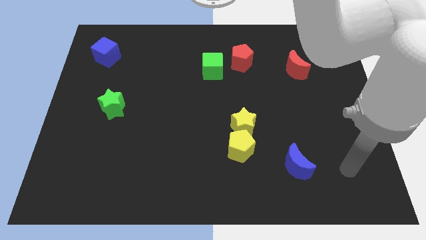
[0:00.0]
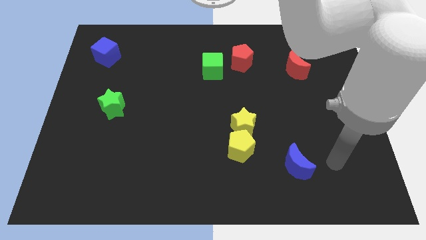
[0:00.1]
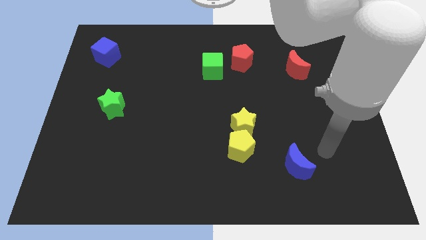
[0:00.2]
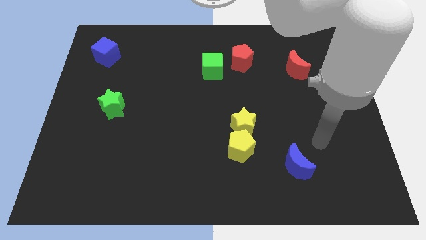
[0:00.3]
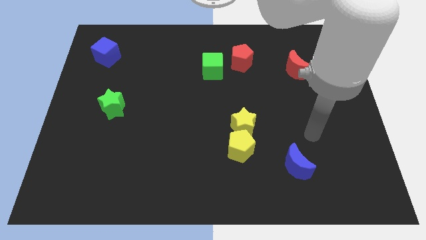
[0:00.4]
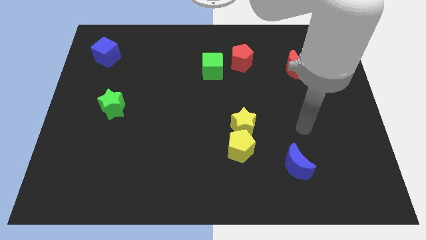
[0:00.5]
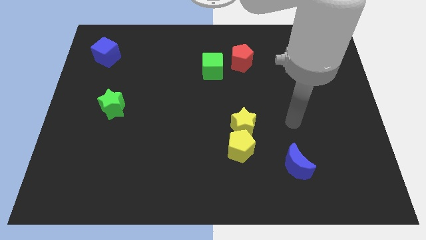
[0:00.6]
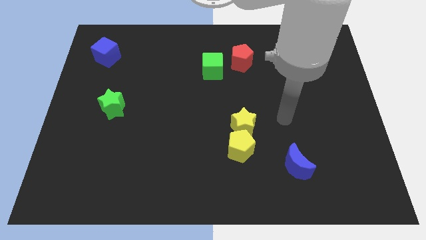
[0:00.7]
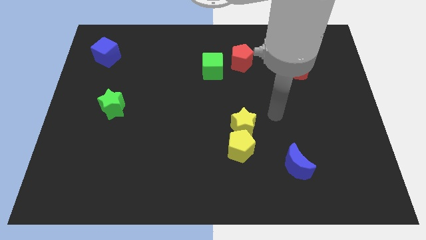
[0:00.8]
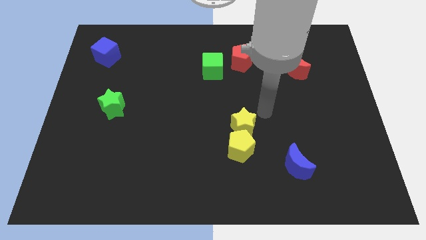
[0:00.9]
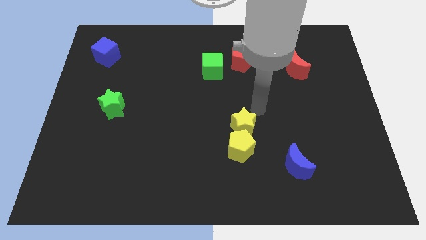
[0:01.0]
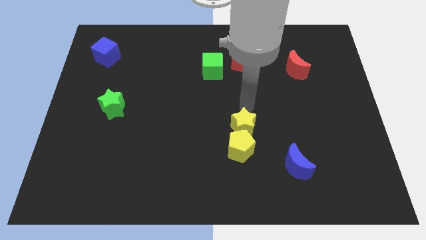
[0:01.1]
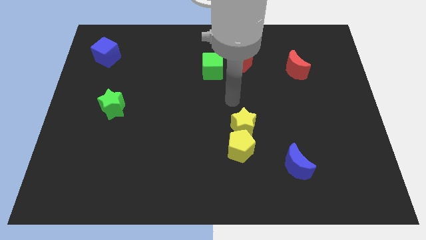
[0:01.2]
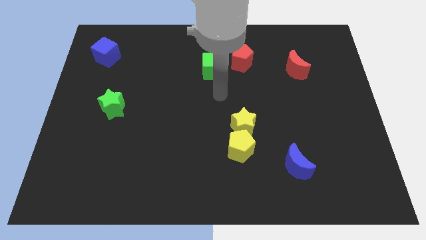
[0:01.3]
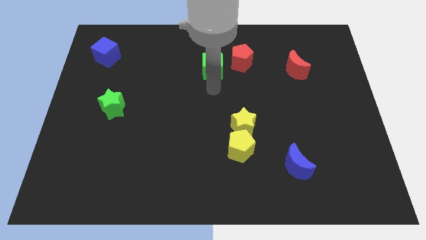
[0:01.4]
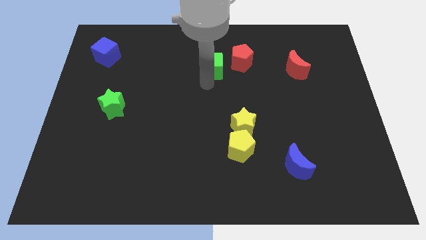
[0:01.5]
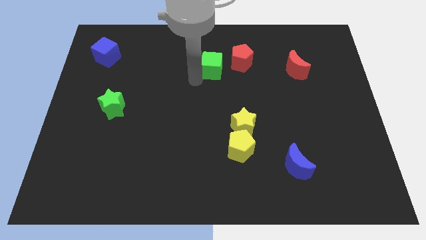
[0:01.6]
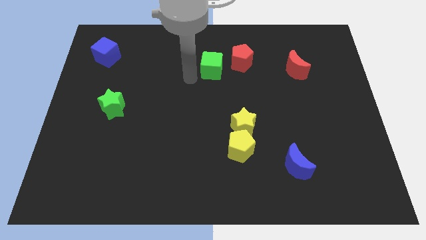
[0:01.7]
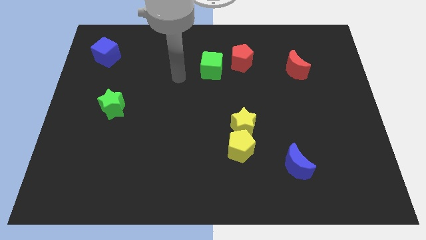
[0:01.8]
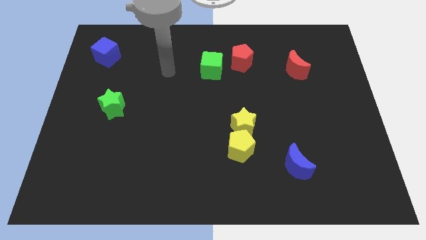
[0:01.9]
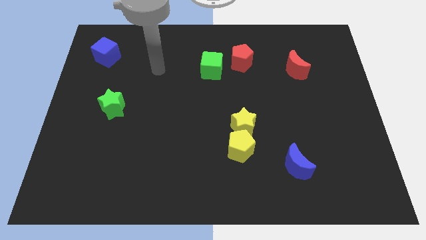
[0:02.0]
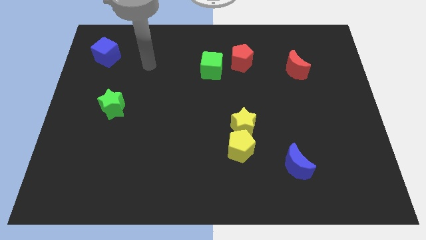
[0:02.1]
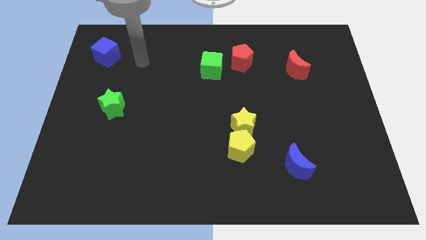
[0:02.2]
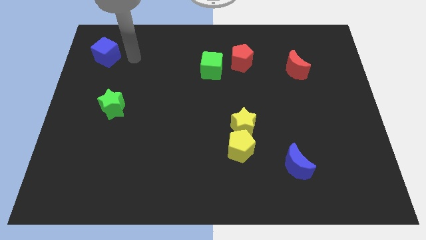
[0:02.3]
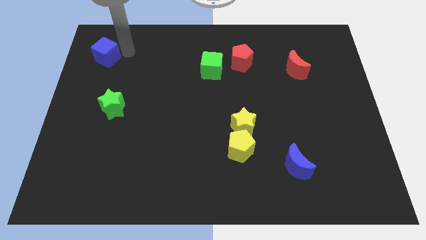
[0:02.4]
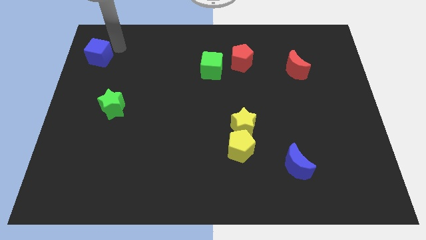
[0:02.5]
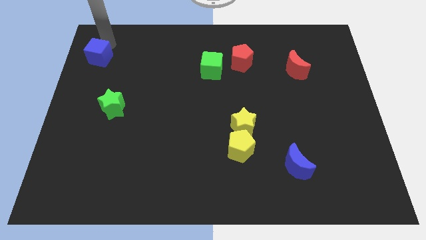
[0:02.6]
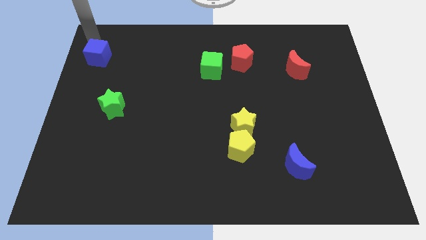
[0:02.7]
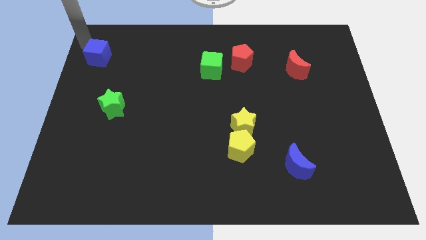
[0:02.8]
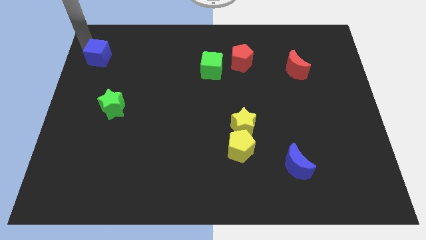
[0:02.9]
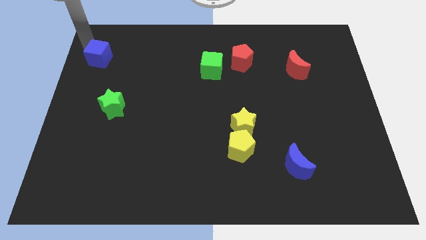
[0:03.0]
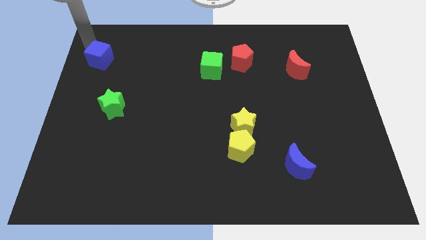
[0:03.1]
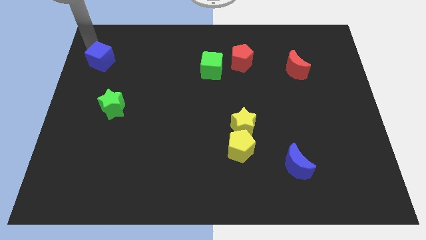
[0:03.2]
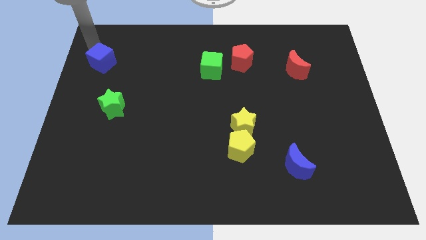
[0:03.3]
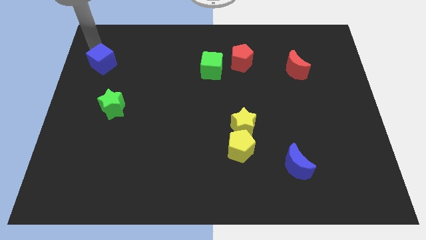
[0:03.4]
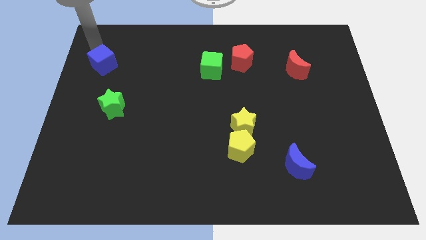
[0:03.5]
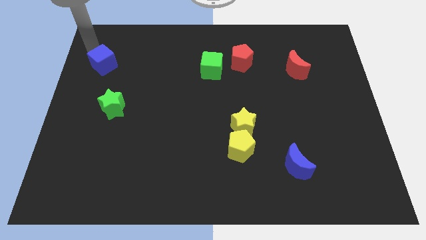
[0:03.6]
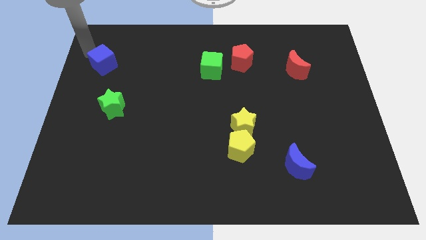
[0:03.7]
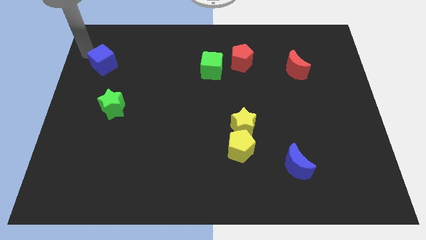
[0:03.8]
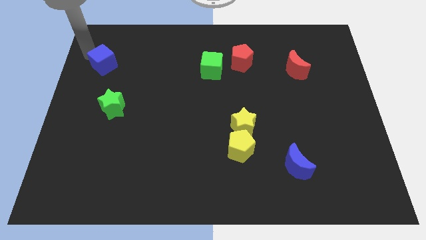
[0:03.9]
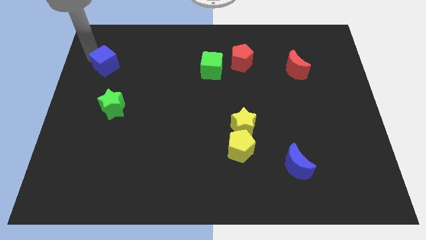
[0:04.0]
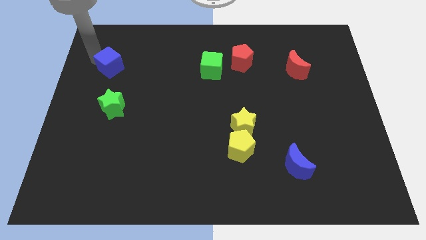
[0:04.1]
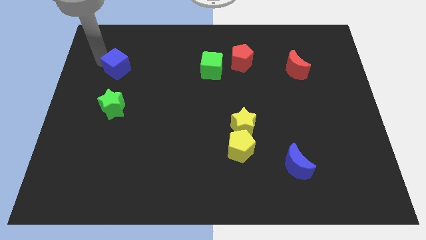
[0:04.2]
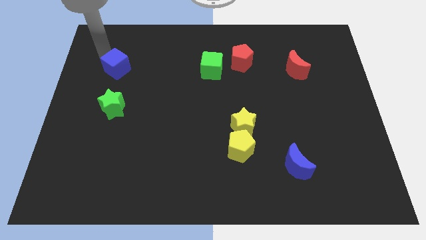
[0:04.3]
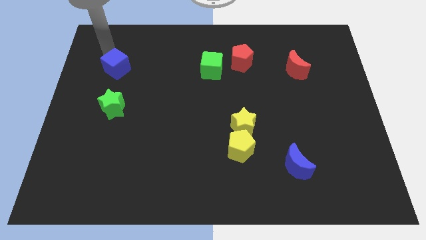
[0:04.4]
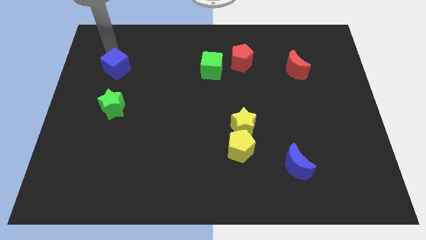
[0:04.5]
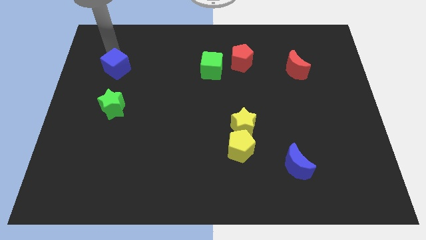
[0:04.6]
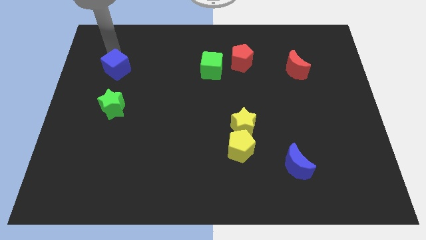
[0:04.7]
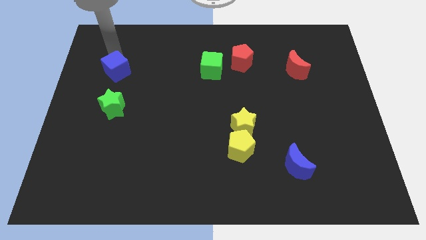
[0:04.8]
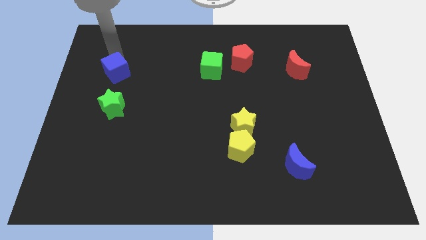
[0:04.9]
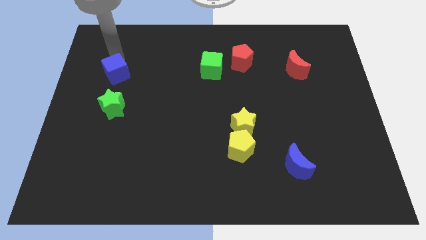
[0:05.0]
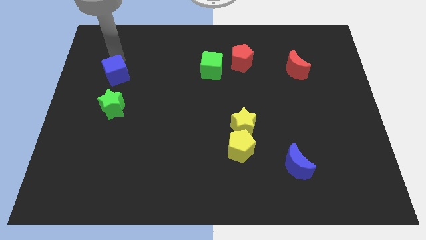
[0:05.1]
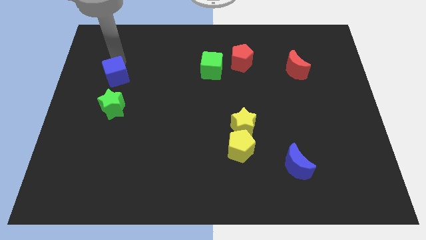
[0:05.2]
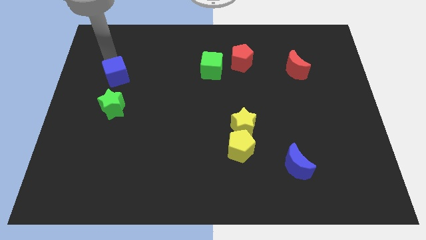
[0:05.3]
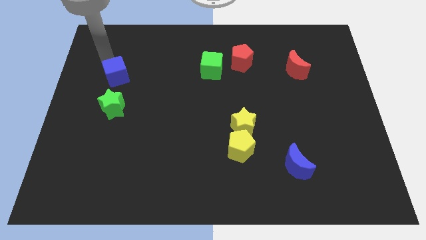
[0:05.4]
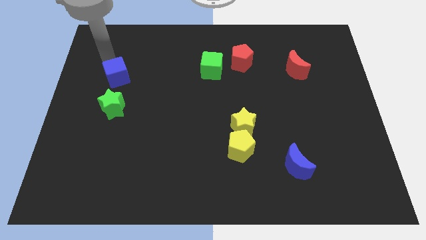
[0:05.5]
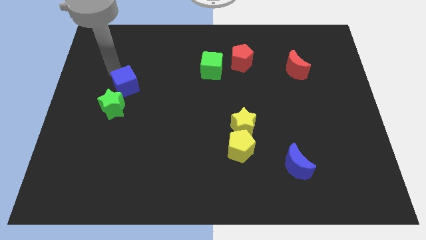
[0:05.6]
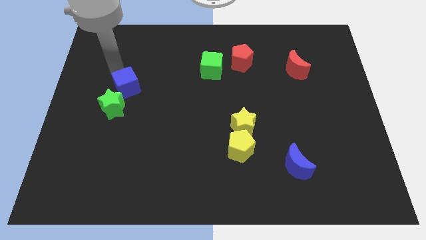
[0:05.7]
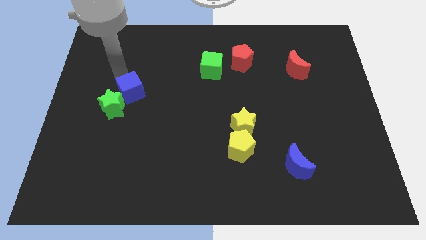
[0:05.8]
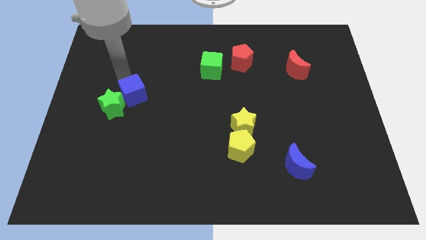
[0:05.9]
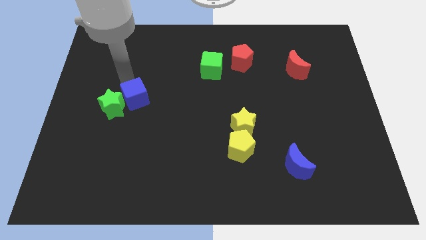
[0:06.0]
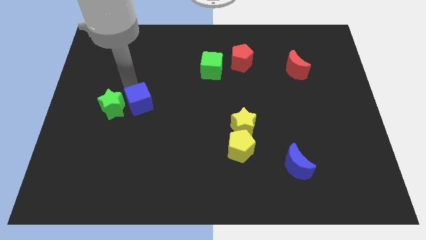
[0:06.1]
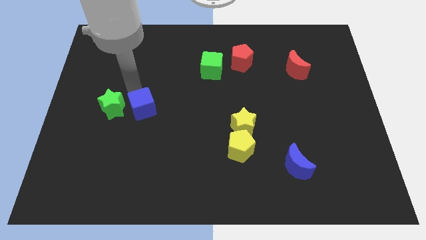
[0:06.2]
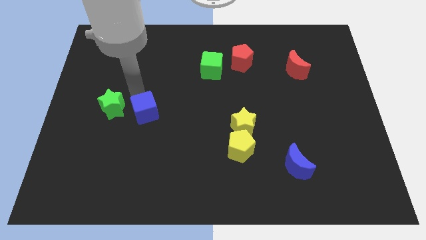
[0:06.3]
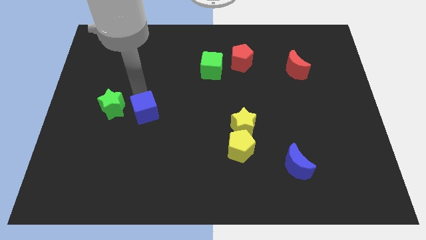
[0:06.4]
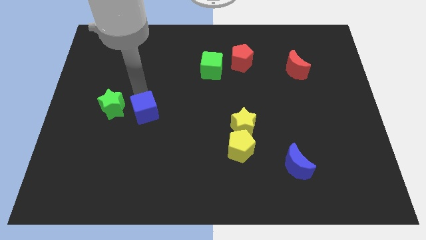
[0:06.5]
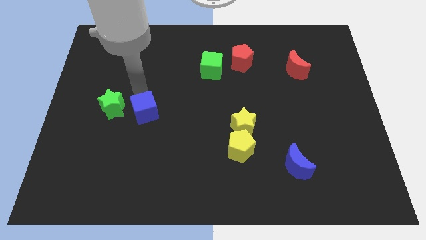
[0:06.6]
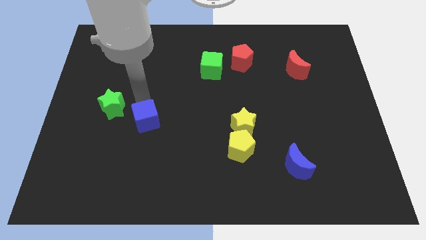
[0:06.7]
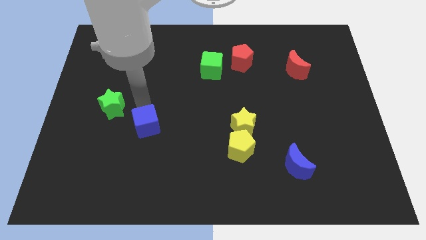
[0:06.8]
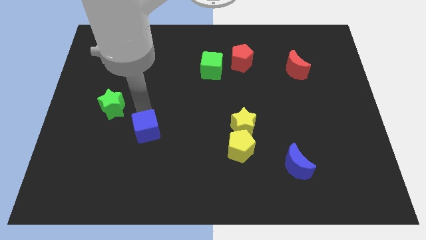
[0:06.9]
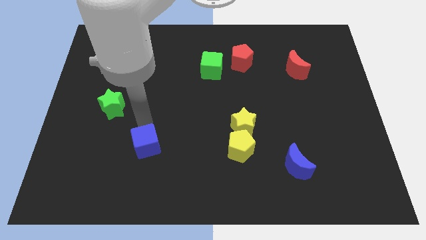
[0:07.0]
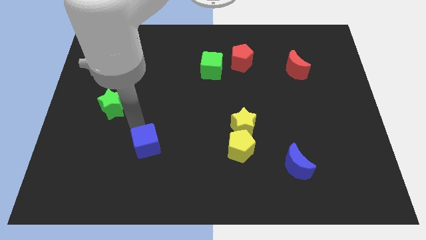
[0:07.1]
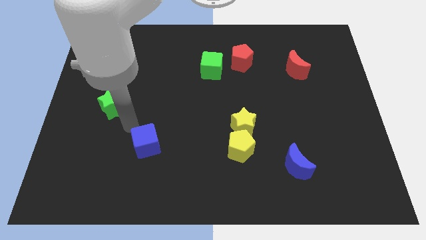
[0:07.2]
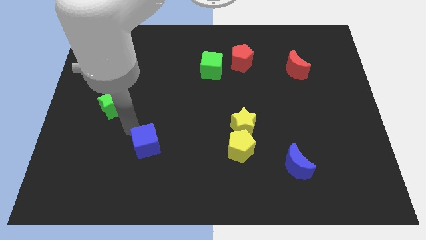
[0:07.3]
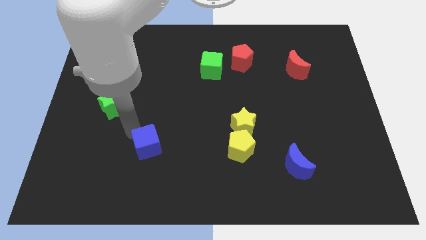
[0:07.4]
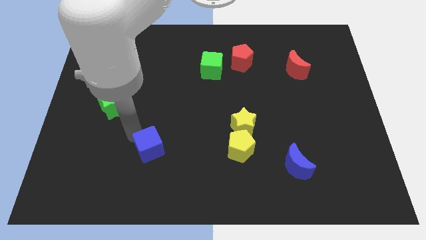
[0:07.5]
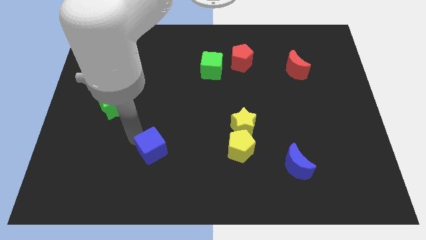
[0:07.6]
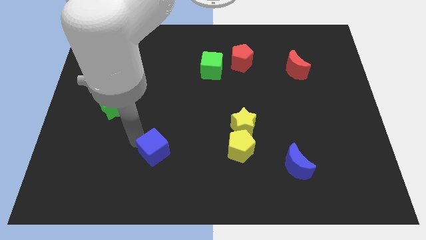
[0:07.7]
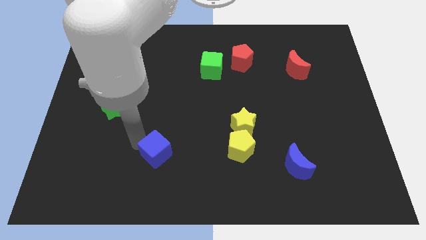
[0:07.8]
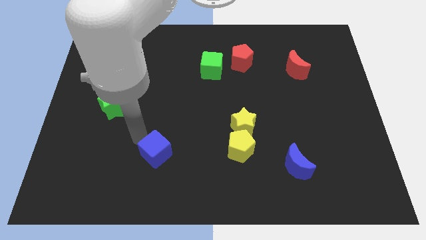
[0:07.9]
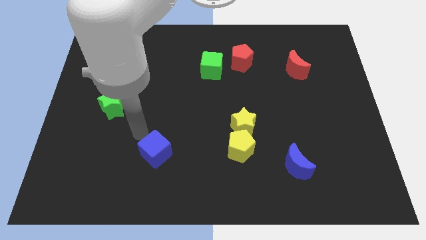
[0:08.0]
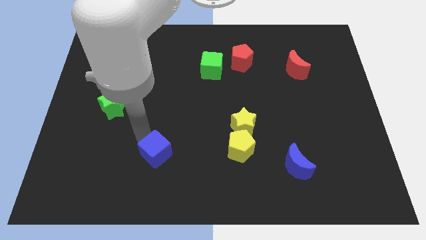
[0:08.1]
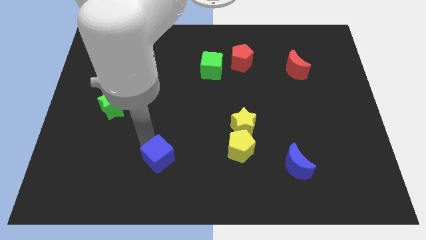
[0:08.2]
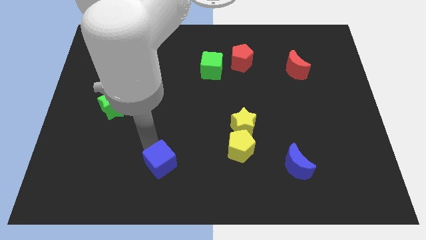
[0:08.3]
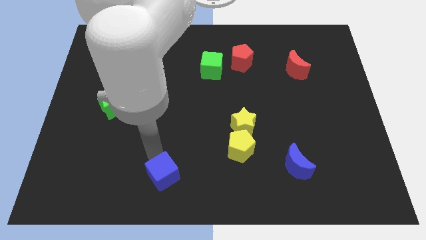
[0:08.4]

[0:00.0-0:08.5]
put the blue cube to the bottom side
